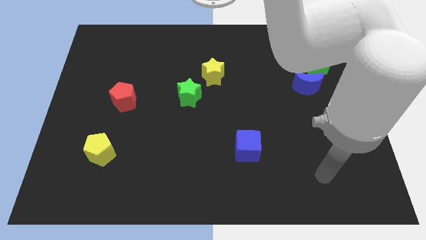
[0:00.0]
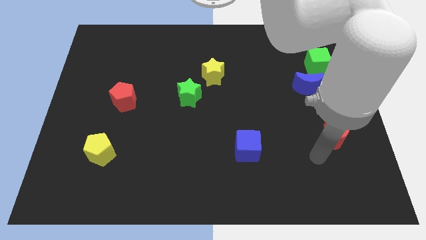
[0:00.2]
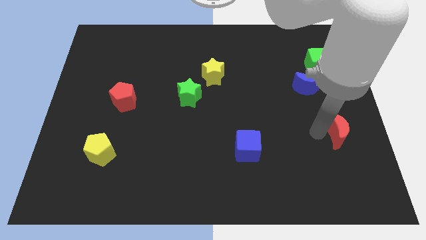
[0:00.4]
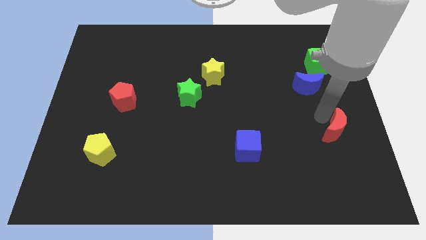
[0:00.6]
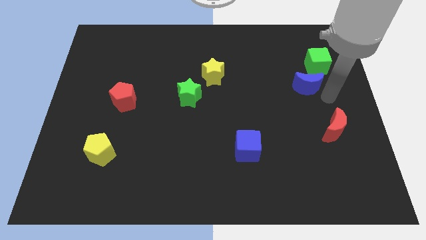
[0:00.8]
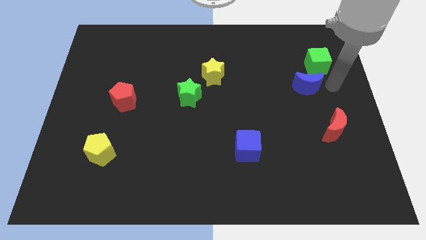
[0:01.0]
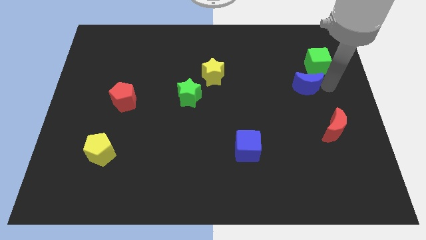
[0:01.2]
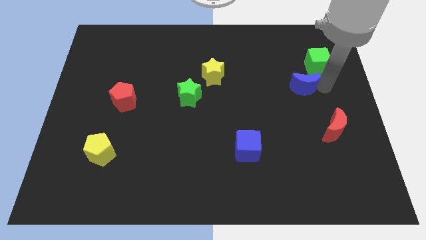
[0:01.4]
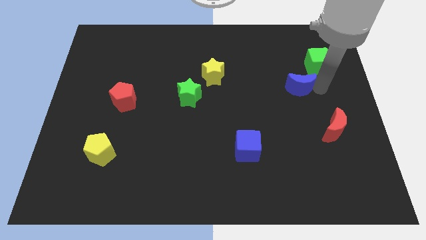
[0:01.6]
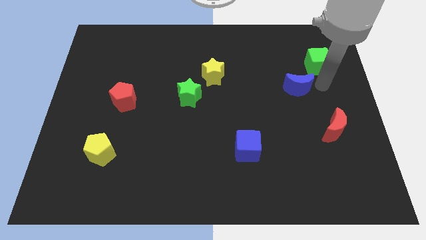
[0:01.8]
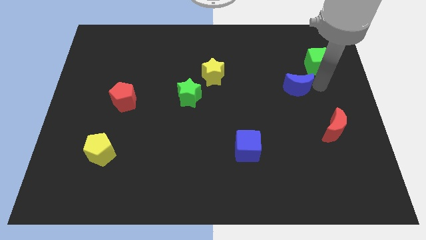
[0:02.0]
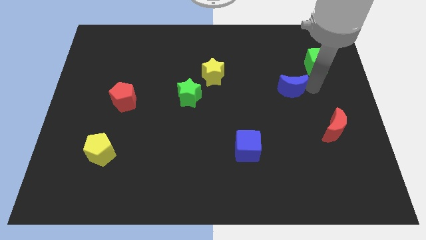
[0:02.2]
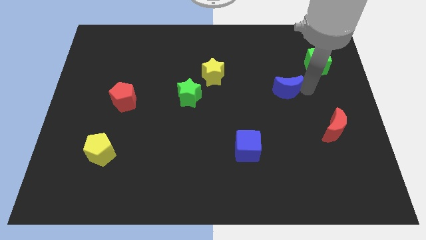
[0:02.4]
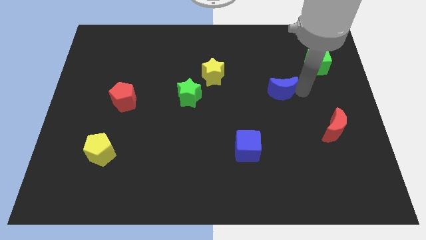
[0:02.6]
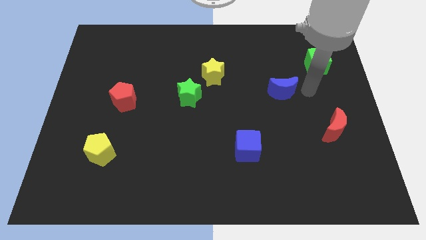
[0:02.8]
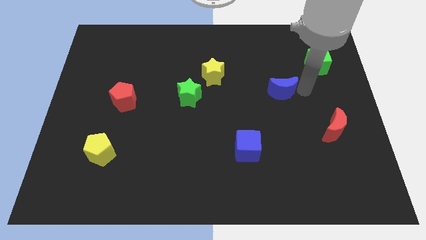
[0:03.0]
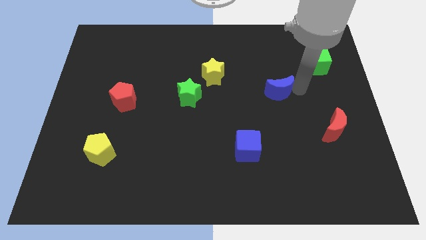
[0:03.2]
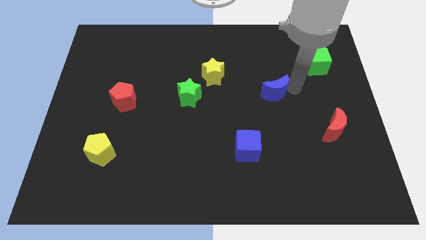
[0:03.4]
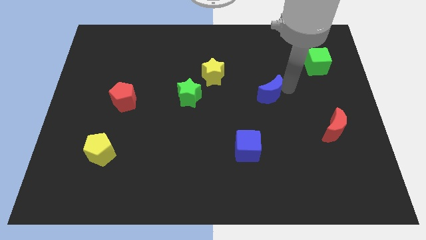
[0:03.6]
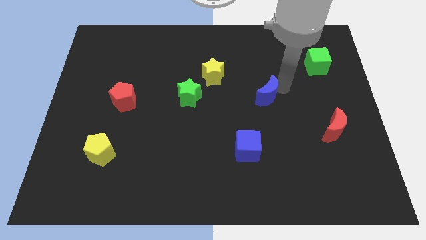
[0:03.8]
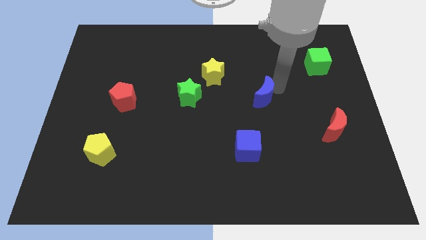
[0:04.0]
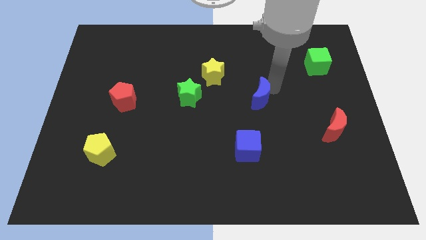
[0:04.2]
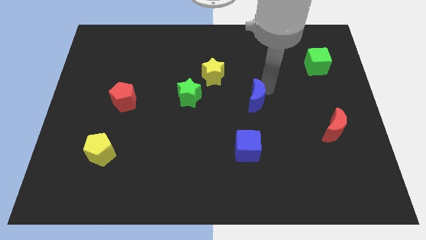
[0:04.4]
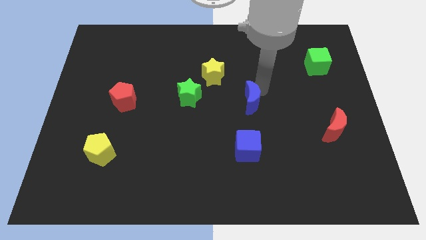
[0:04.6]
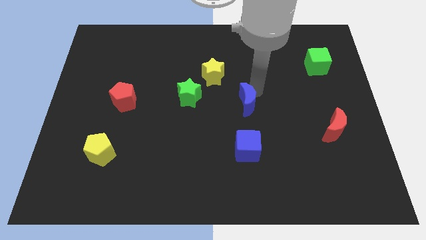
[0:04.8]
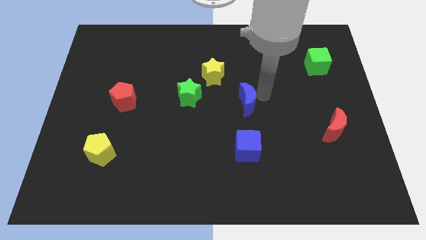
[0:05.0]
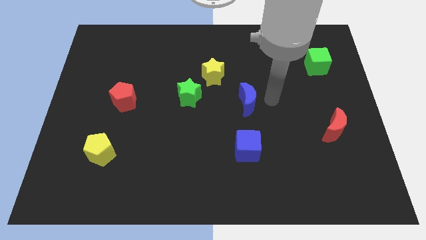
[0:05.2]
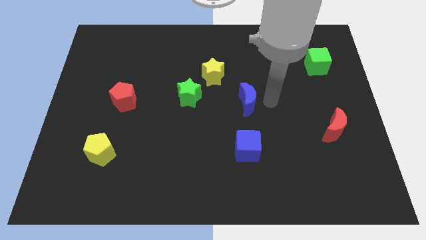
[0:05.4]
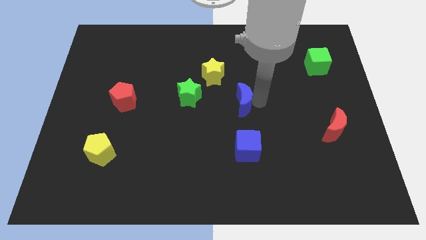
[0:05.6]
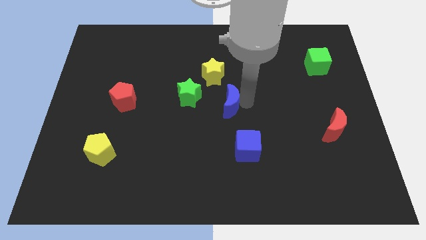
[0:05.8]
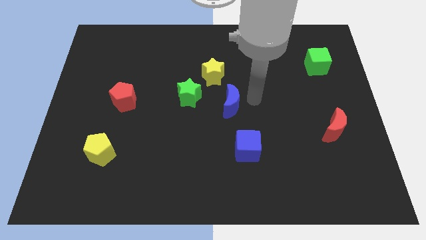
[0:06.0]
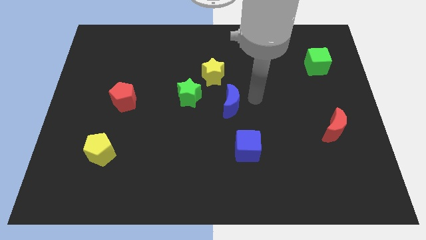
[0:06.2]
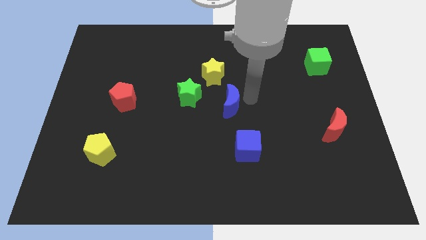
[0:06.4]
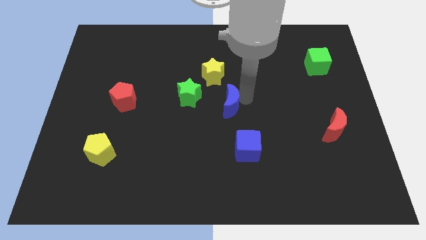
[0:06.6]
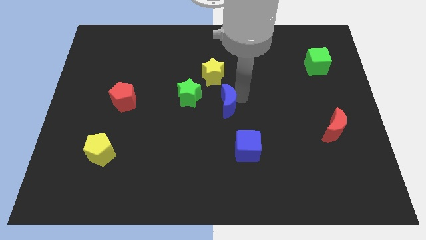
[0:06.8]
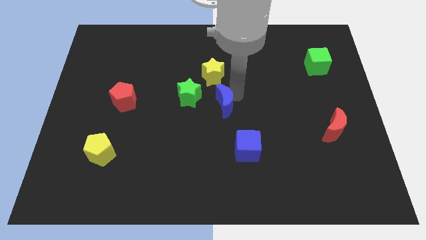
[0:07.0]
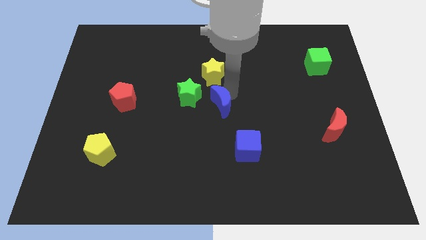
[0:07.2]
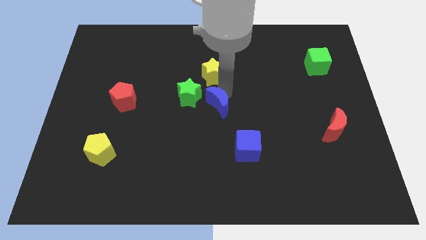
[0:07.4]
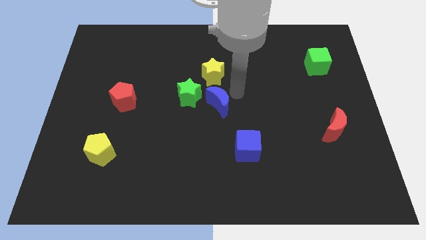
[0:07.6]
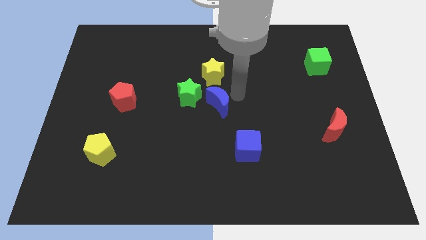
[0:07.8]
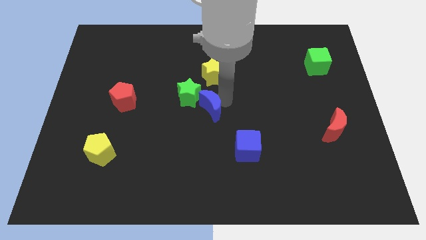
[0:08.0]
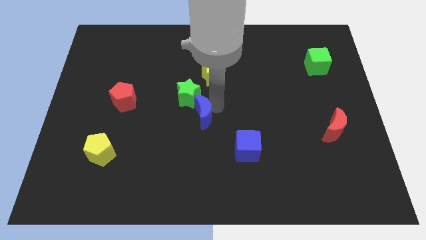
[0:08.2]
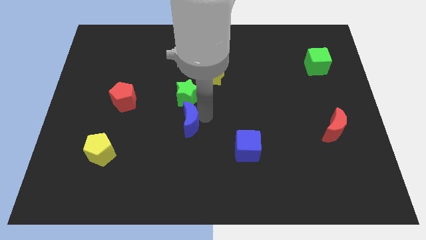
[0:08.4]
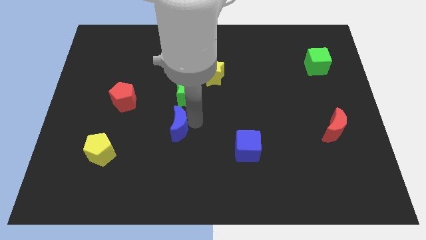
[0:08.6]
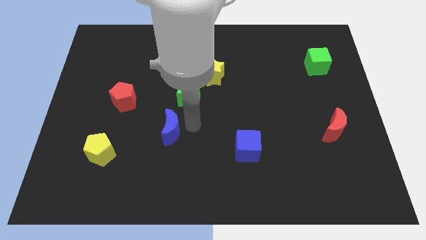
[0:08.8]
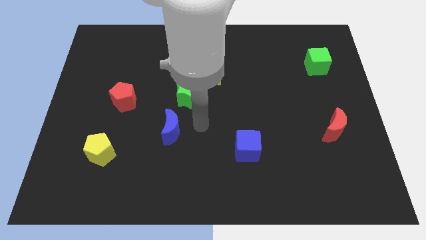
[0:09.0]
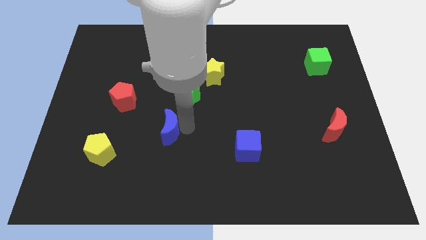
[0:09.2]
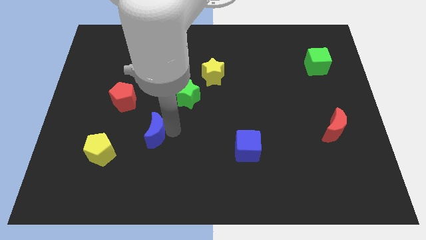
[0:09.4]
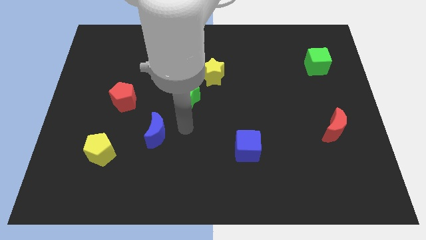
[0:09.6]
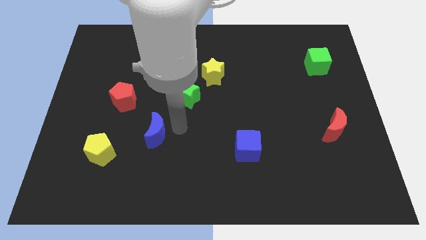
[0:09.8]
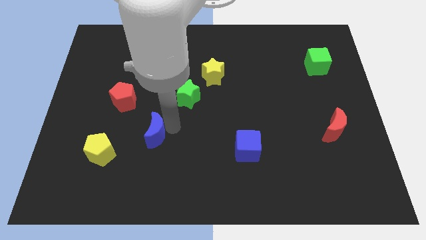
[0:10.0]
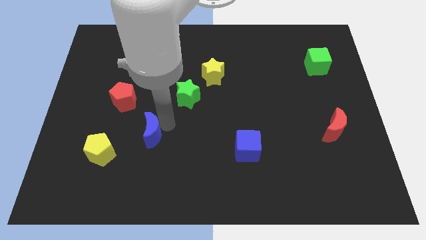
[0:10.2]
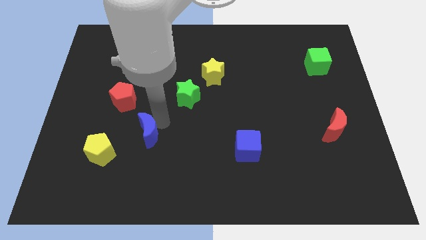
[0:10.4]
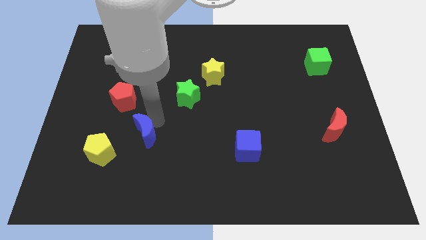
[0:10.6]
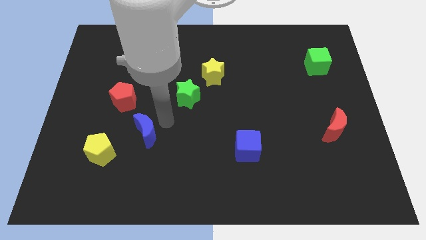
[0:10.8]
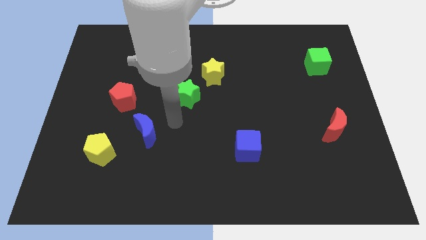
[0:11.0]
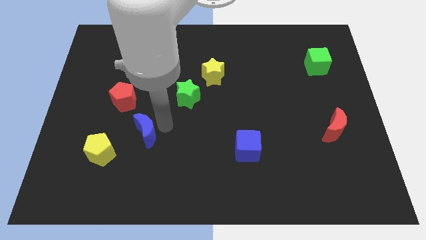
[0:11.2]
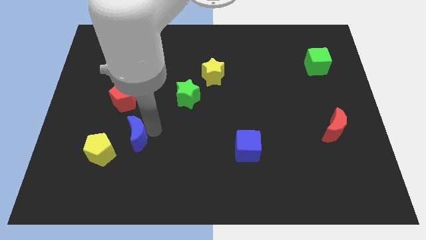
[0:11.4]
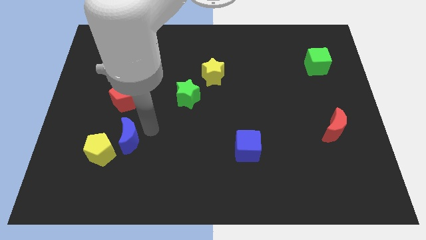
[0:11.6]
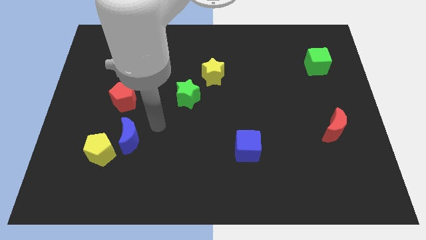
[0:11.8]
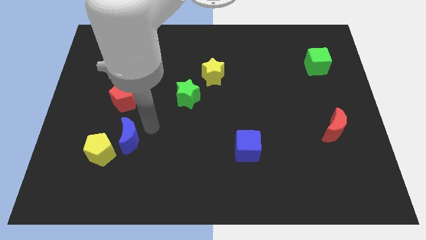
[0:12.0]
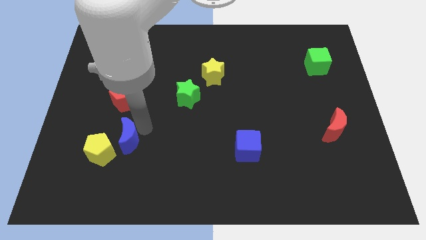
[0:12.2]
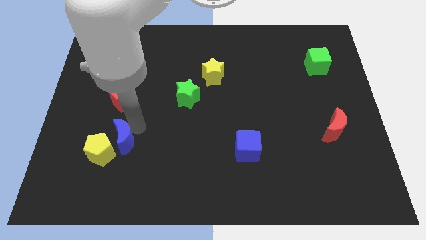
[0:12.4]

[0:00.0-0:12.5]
slide the blue moon close to the yellow pentagon

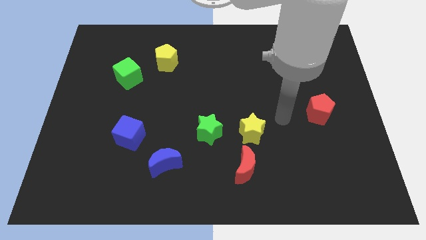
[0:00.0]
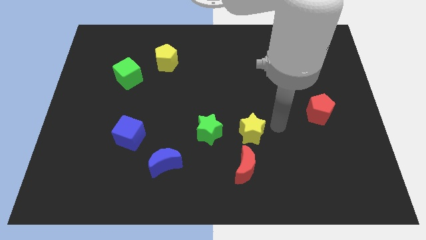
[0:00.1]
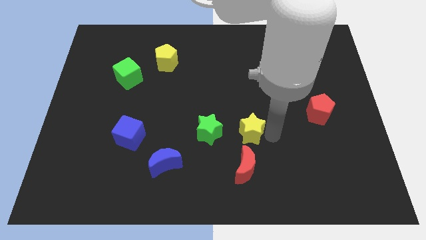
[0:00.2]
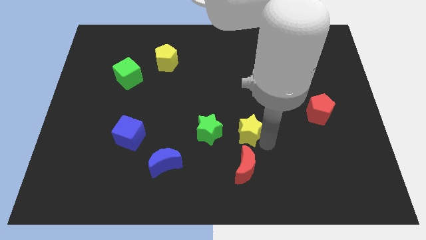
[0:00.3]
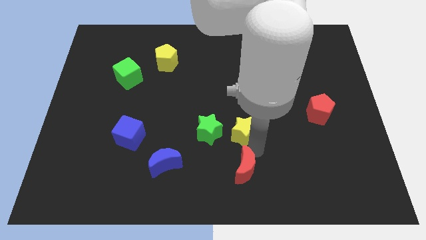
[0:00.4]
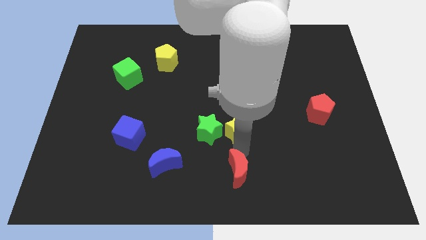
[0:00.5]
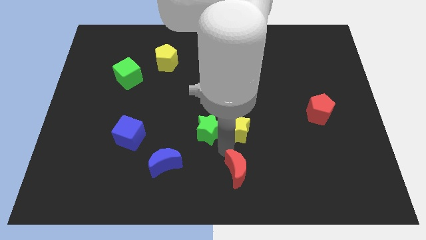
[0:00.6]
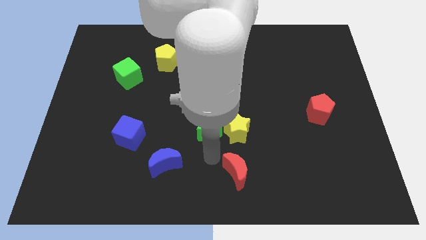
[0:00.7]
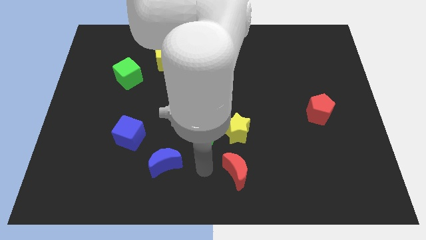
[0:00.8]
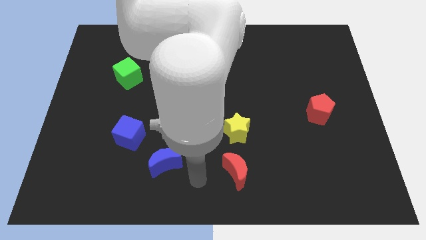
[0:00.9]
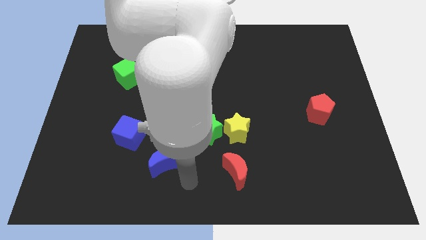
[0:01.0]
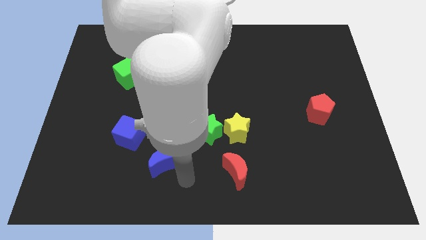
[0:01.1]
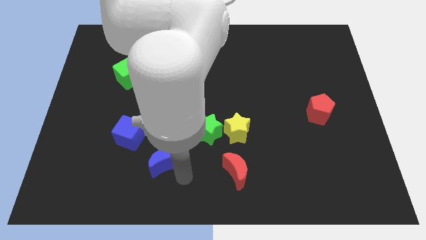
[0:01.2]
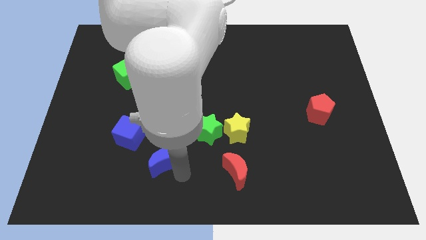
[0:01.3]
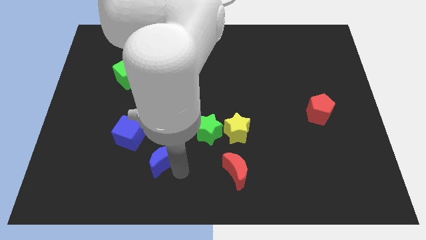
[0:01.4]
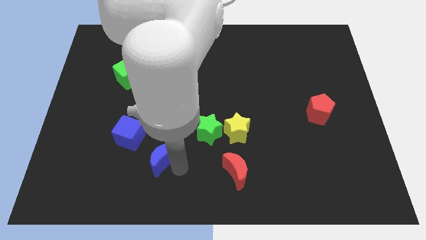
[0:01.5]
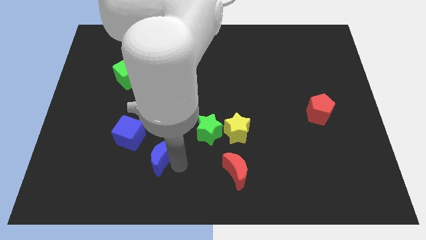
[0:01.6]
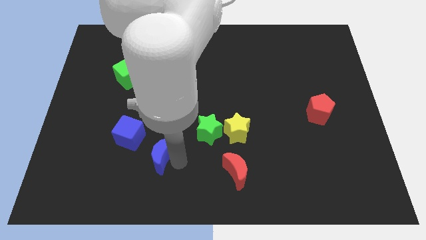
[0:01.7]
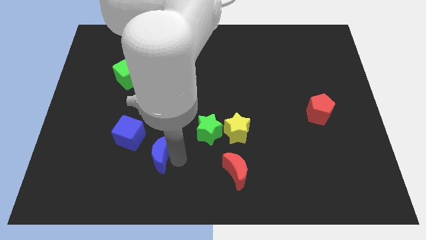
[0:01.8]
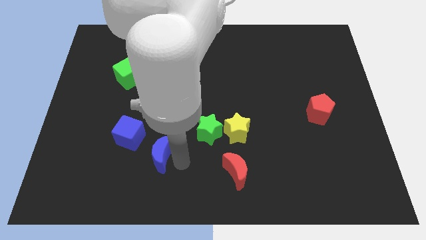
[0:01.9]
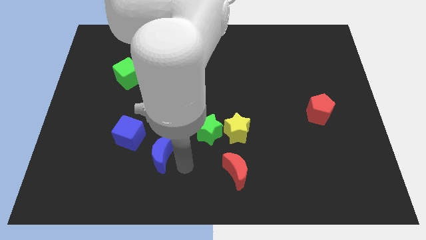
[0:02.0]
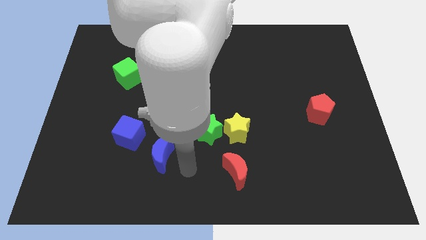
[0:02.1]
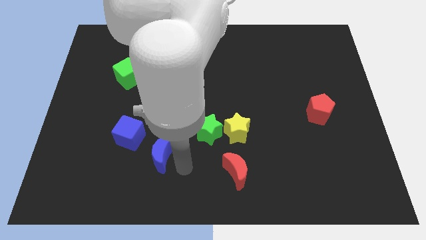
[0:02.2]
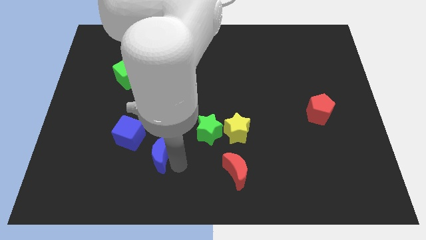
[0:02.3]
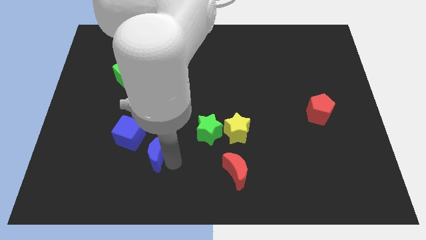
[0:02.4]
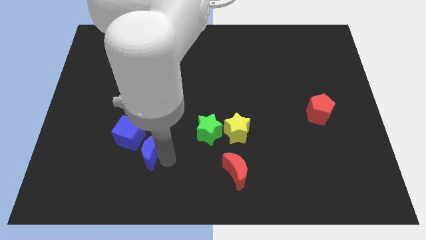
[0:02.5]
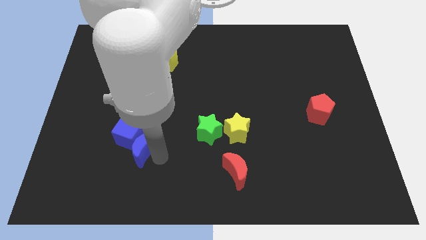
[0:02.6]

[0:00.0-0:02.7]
slide the blue moon next to the blue cube
